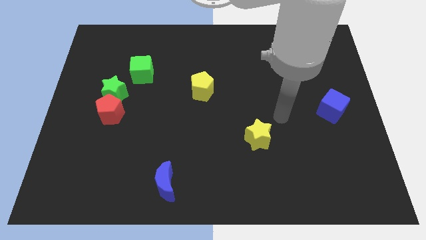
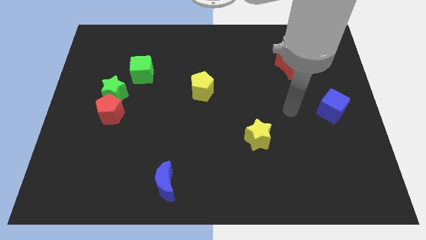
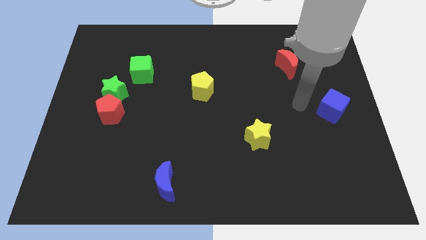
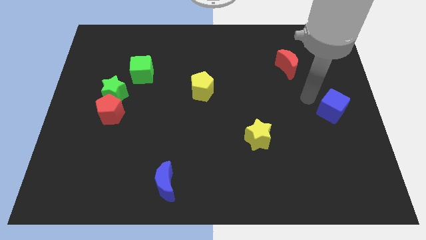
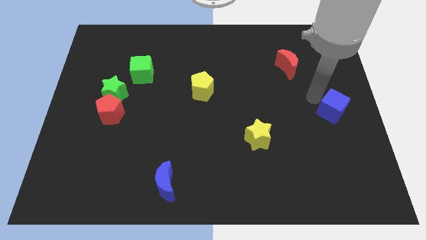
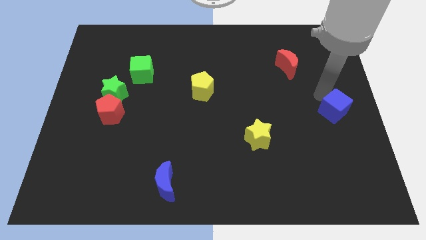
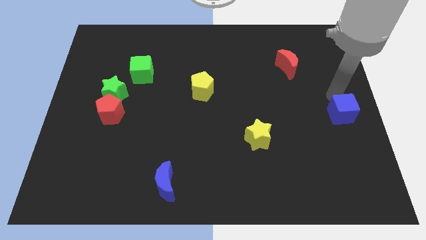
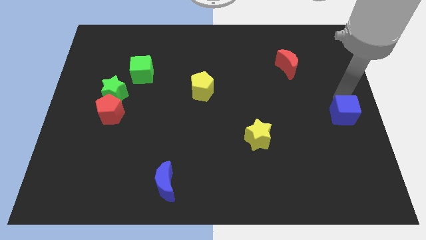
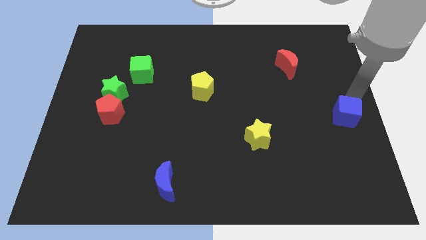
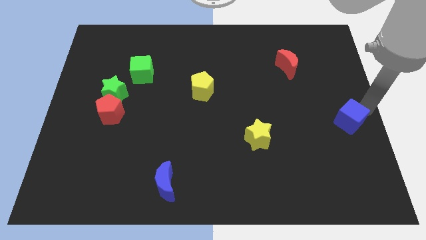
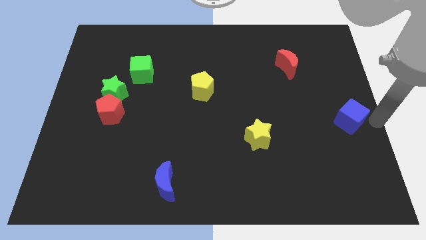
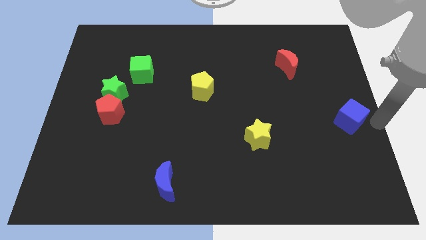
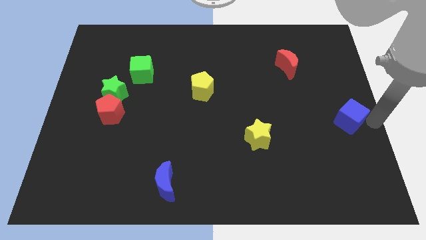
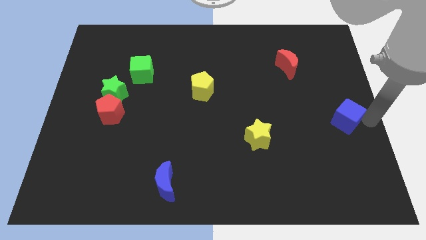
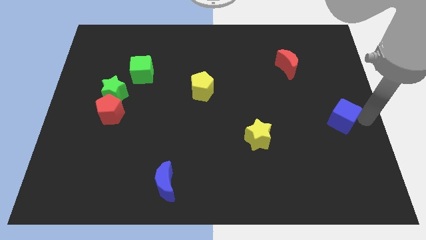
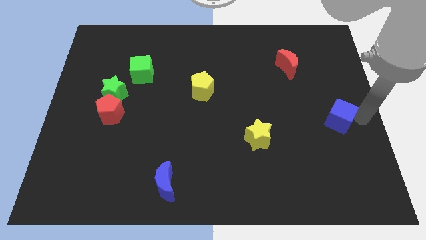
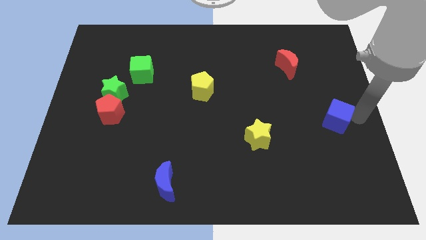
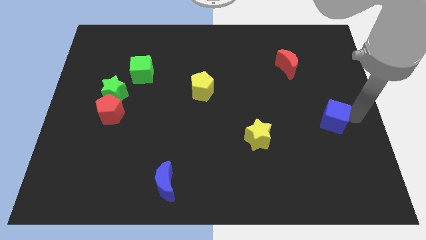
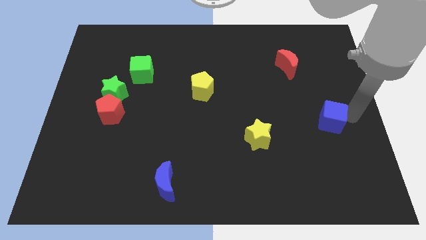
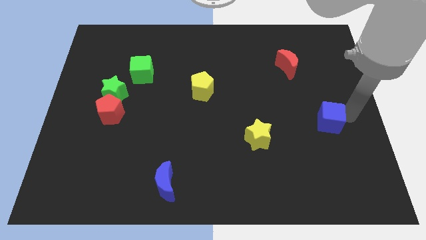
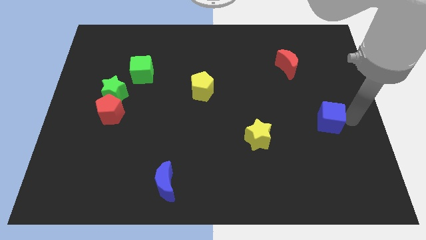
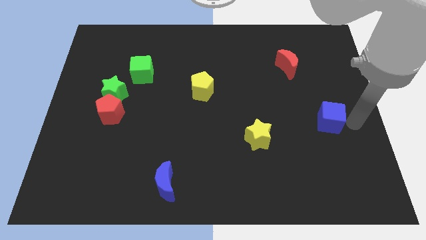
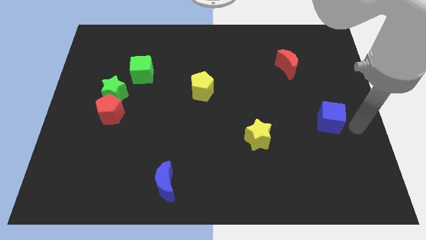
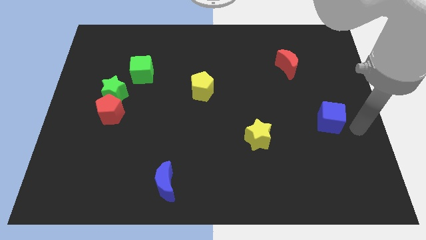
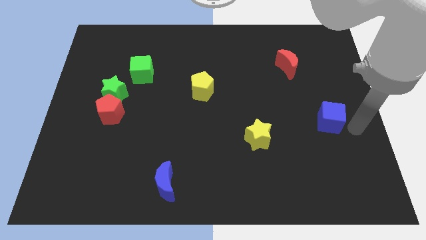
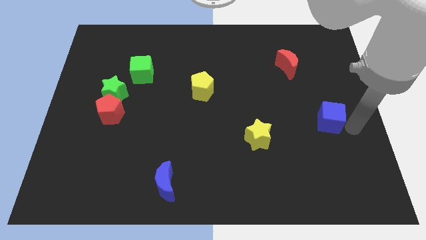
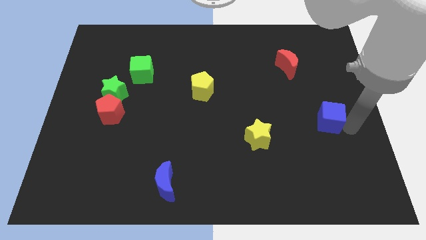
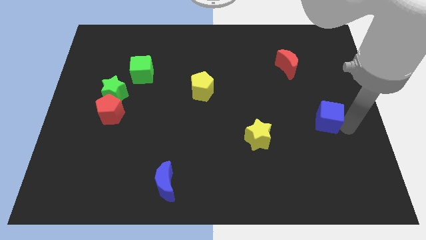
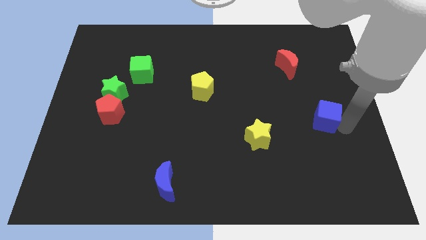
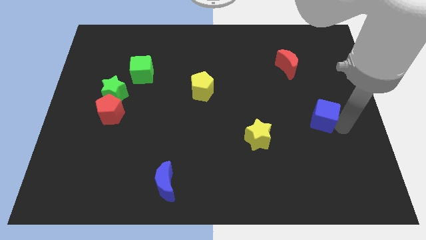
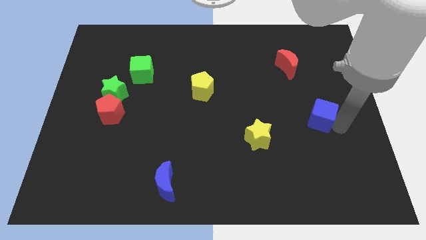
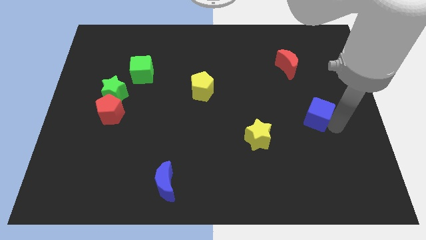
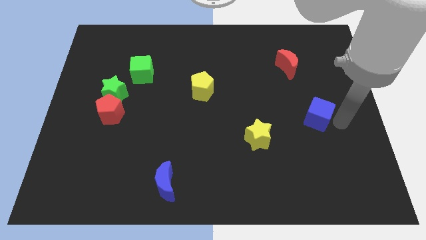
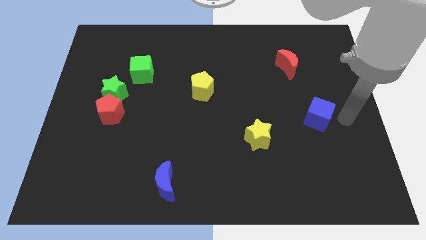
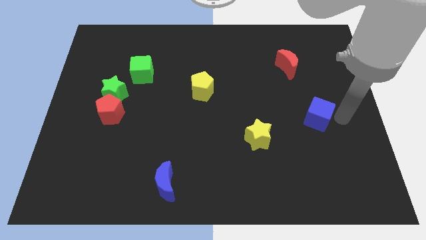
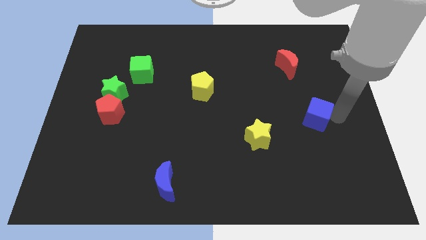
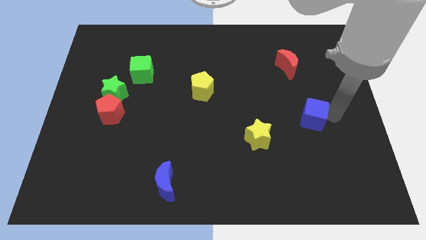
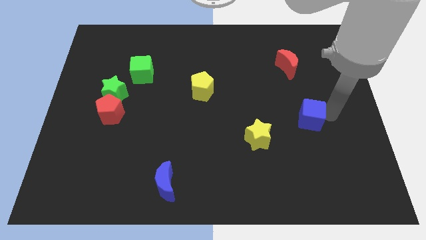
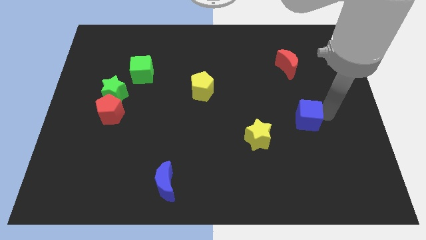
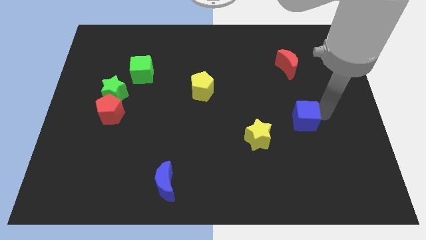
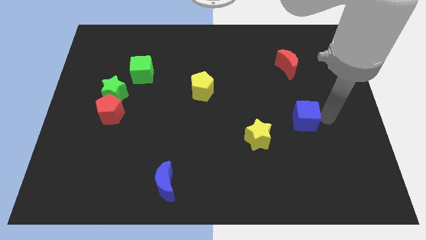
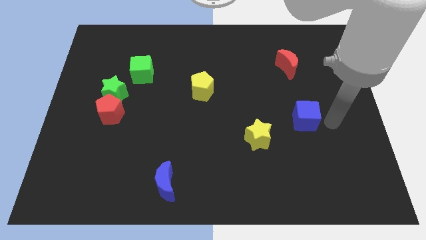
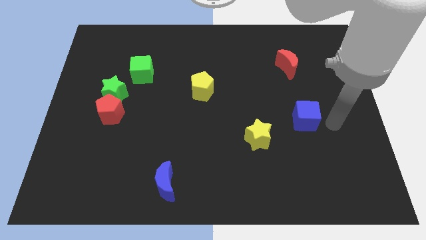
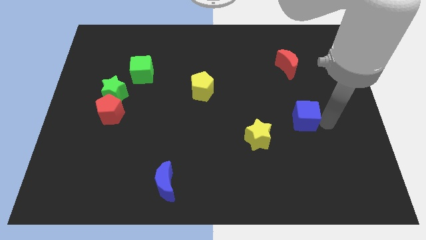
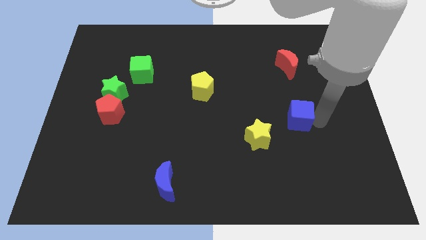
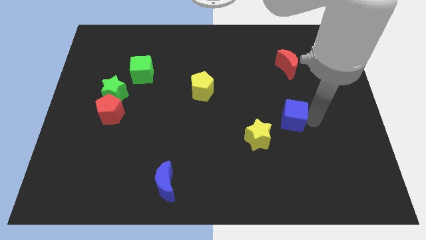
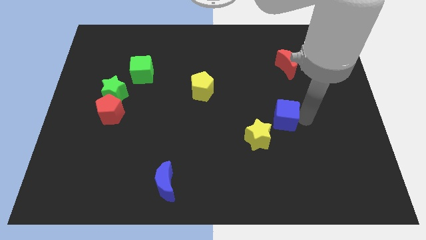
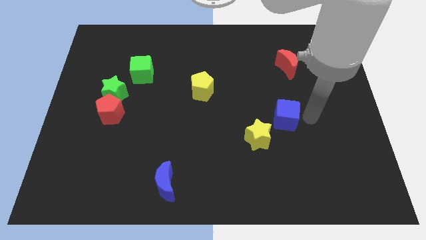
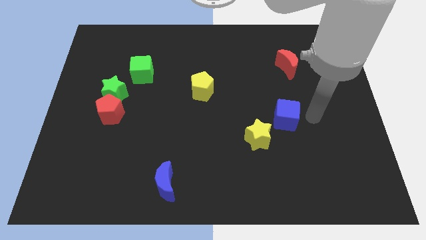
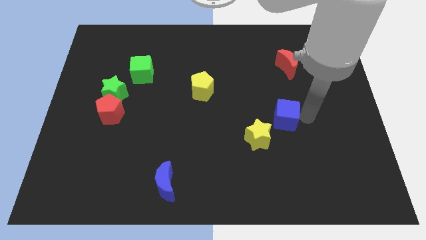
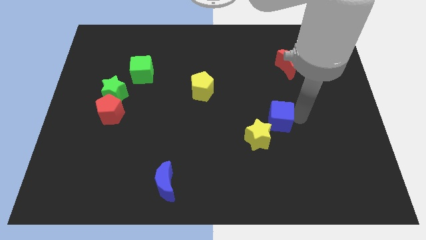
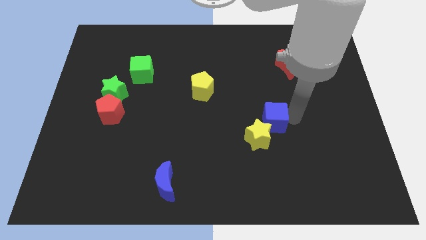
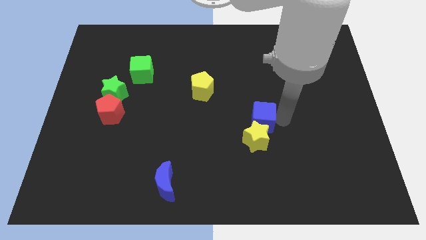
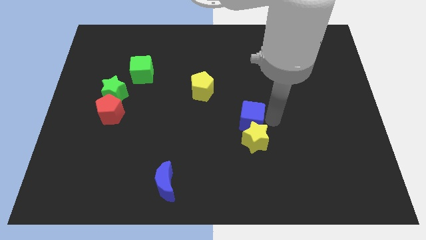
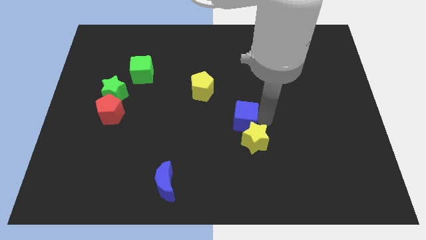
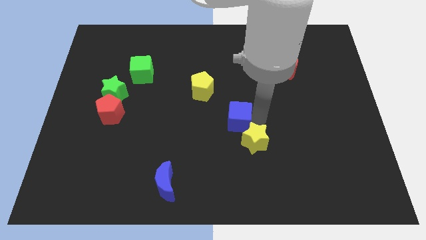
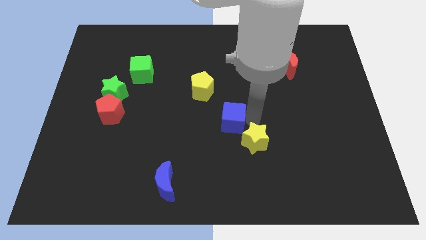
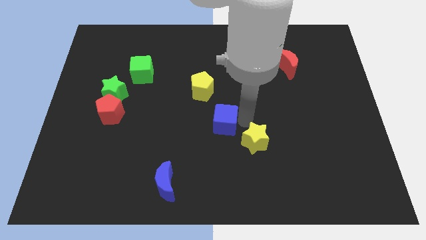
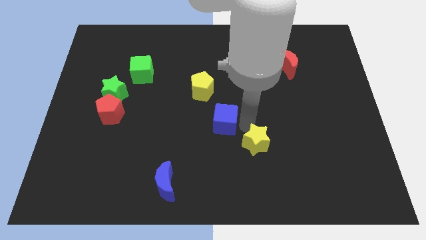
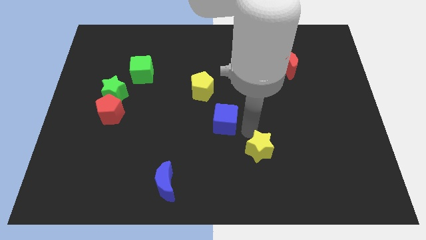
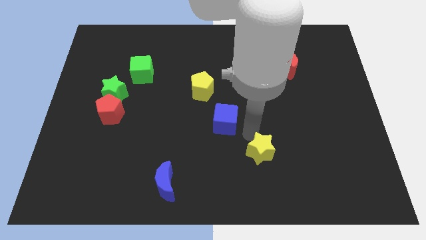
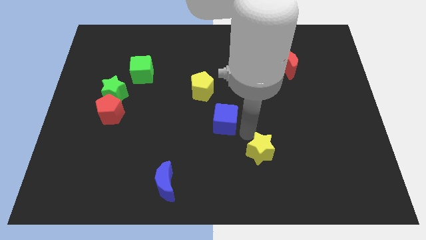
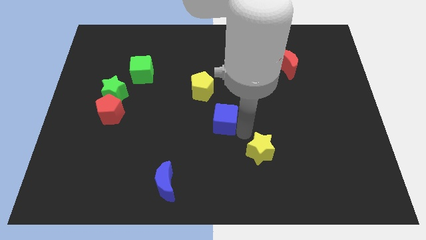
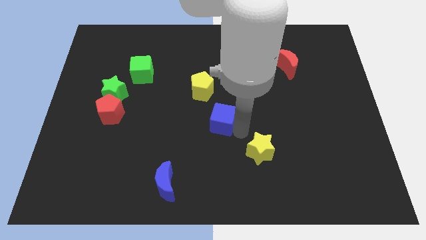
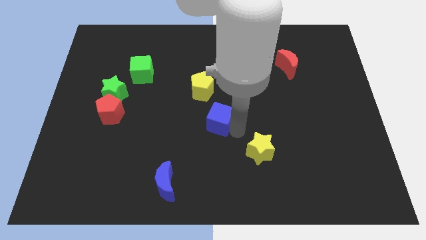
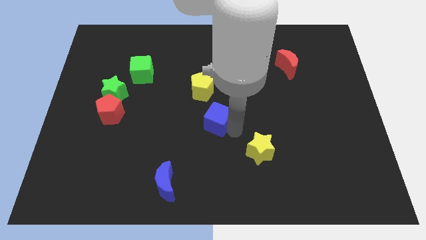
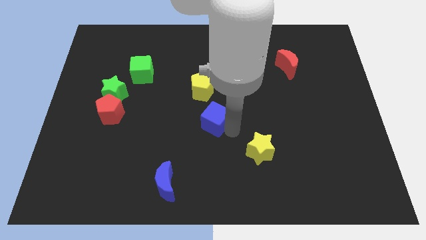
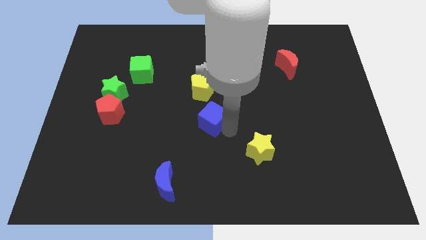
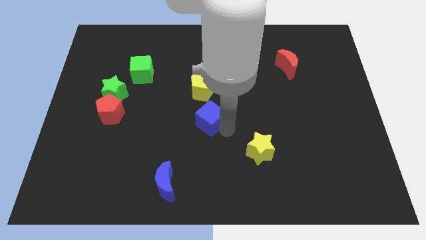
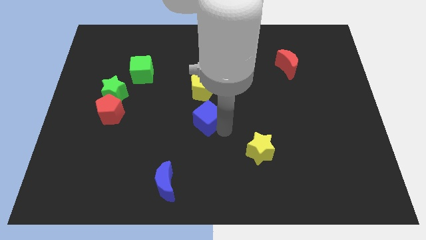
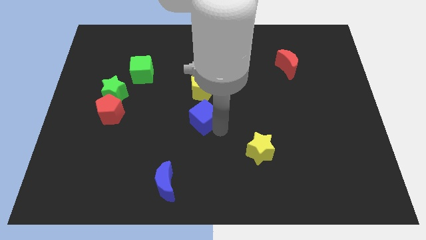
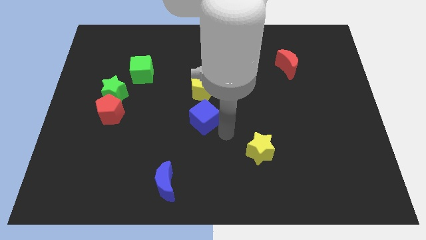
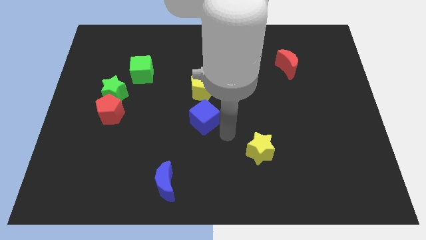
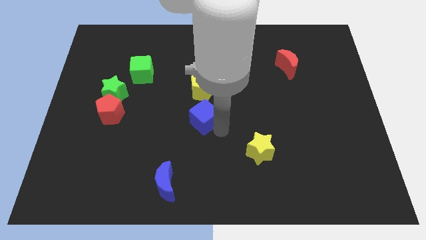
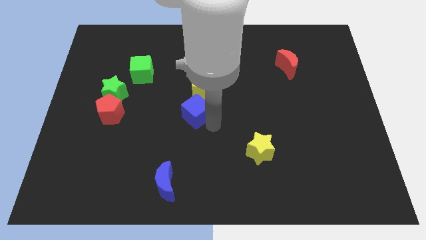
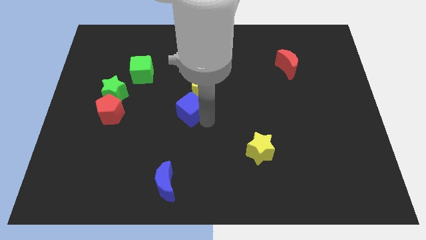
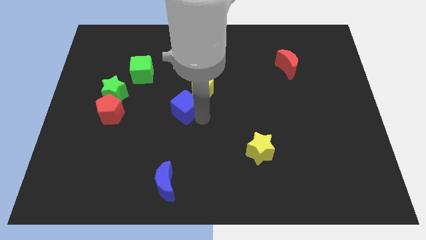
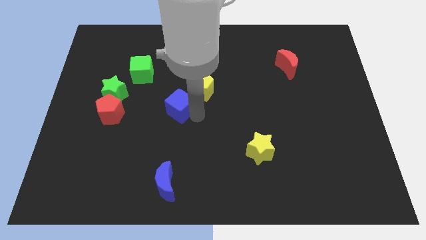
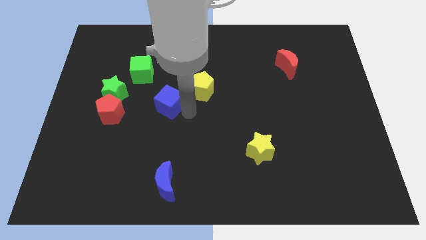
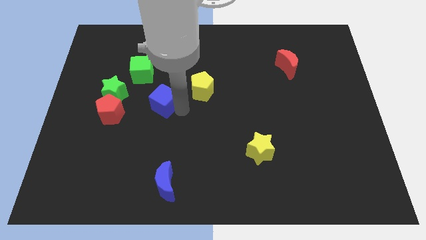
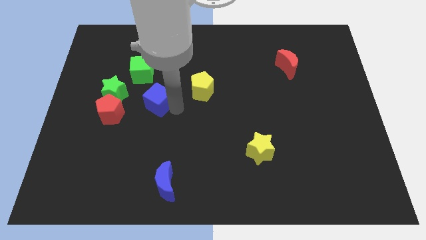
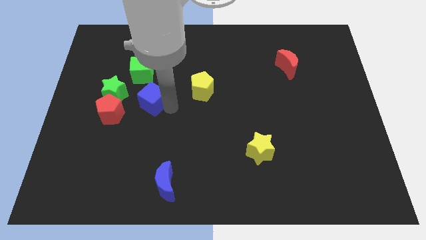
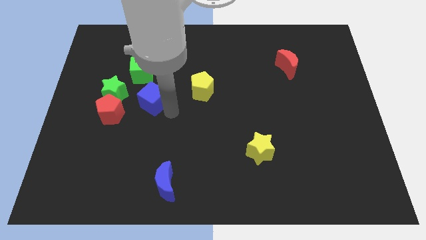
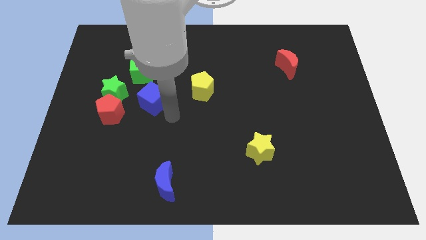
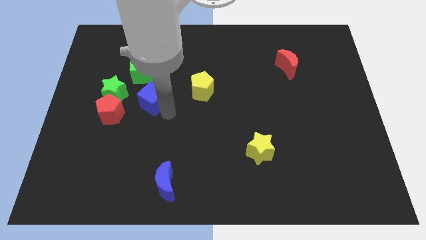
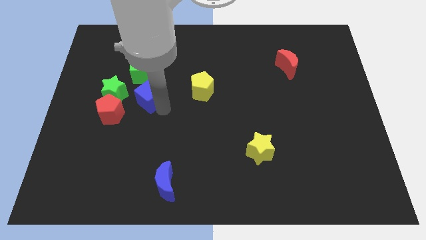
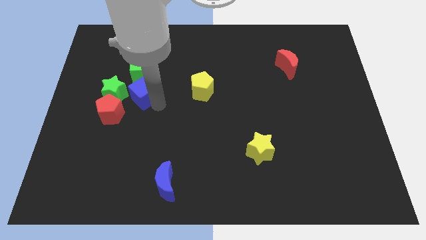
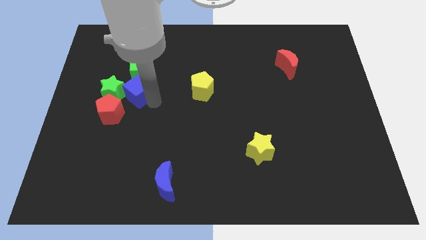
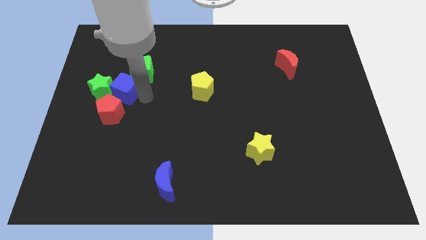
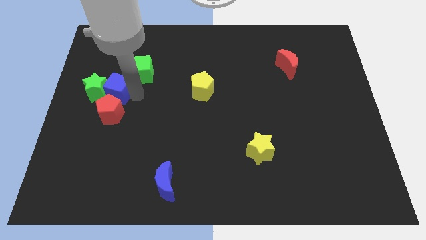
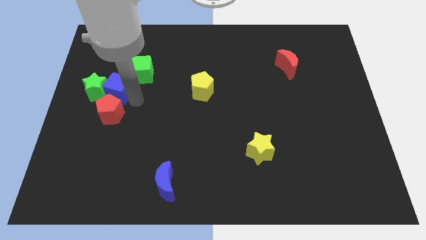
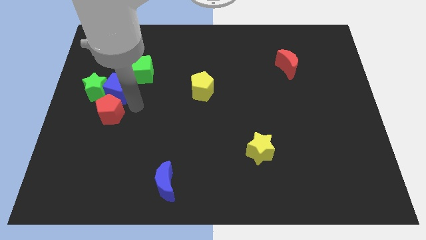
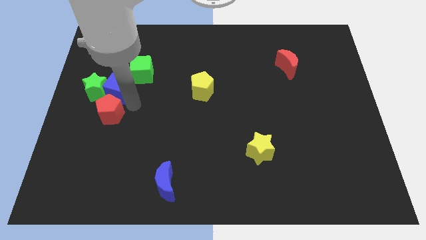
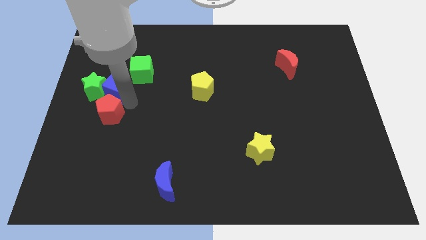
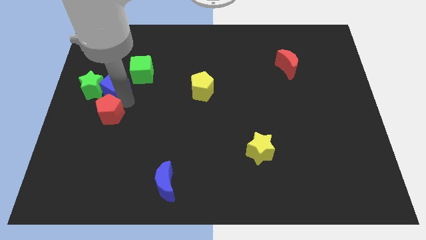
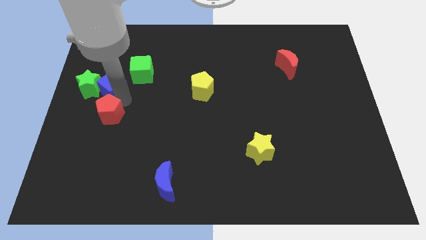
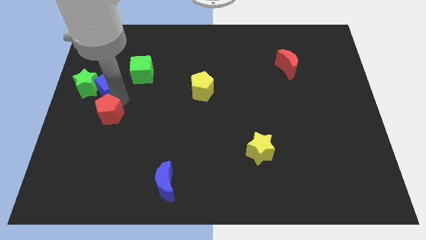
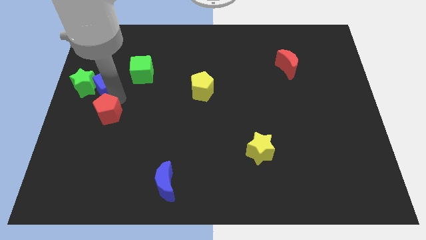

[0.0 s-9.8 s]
move the blue cube to the left side of the green cube
